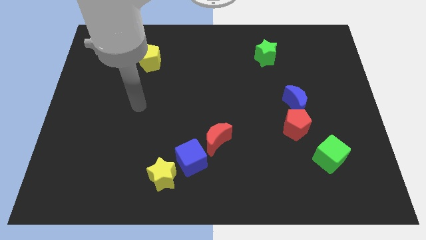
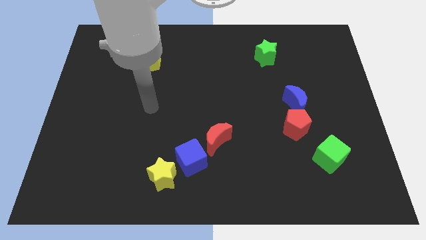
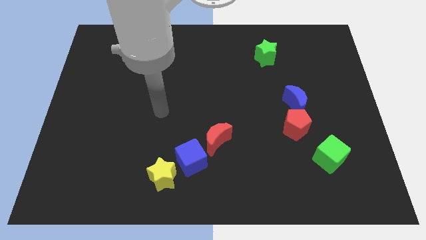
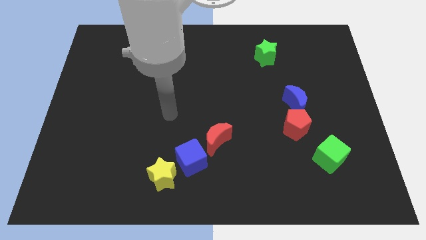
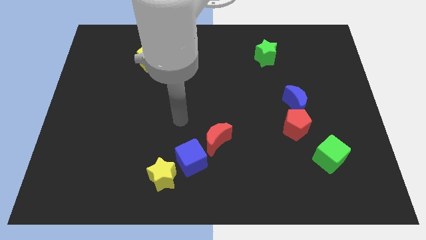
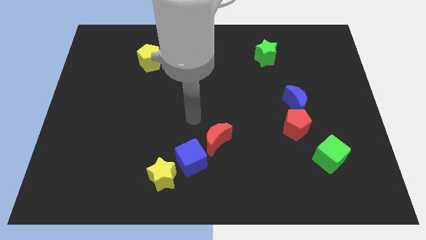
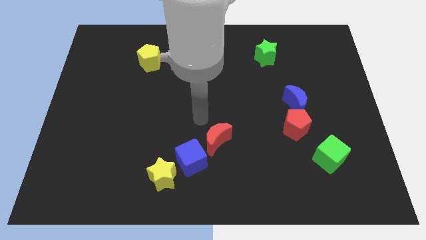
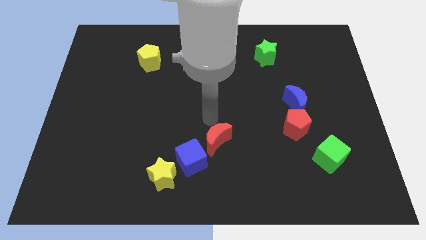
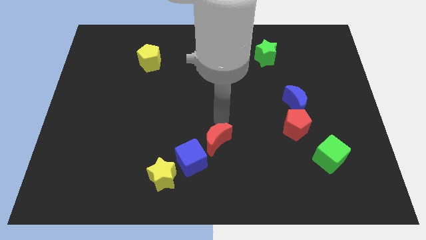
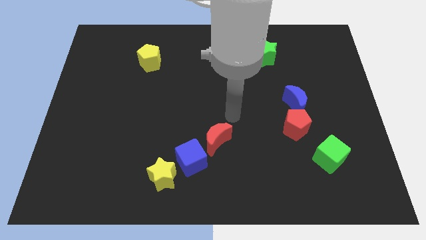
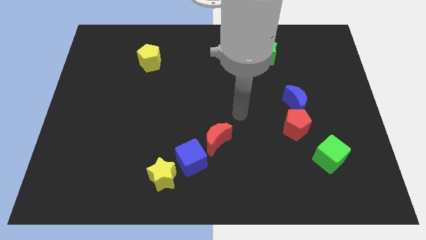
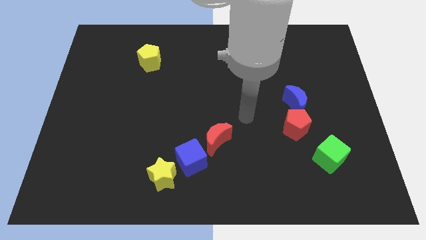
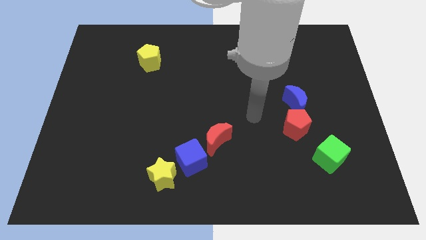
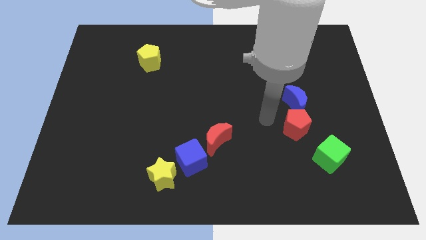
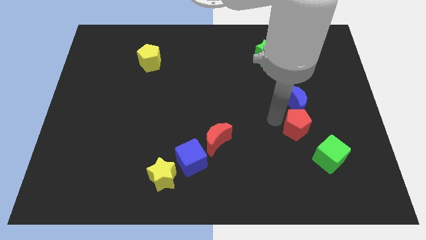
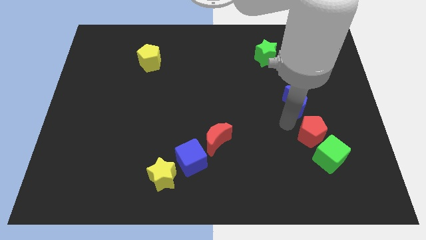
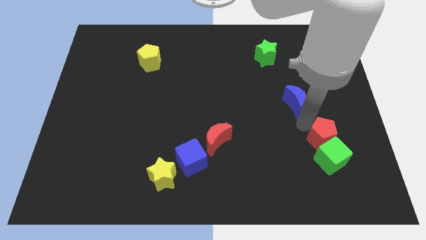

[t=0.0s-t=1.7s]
separate the blue moon from the red pentagon

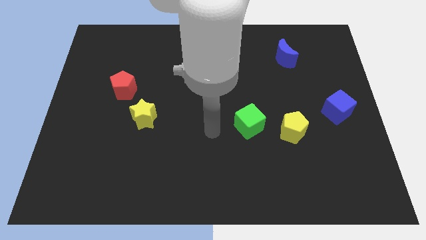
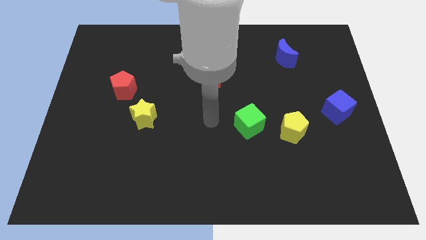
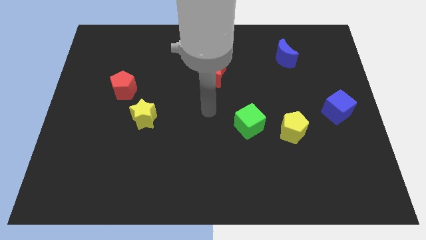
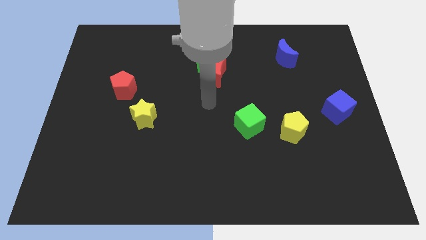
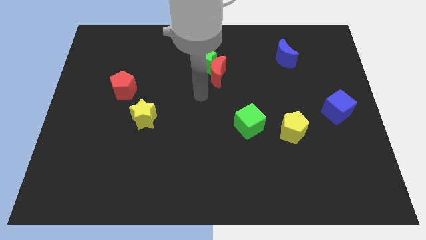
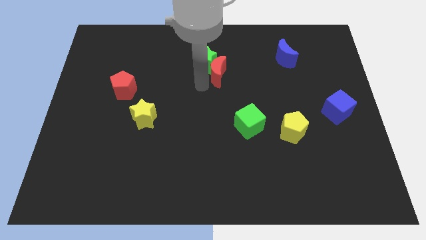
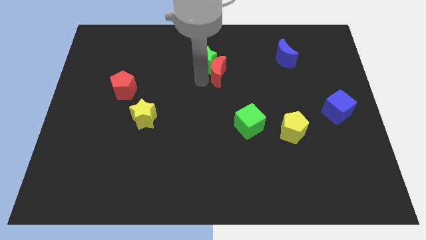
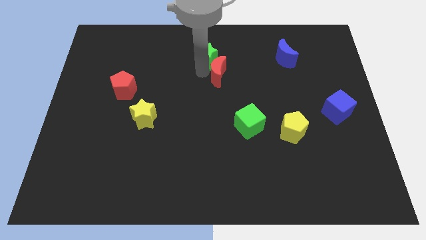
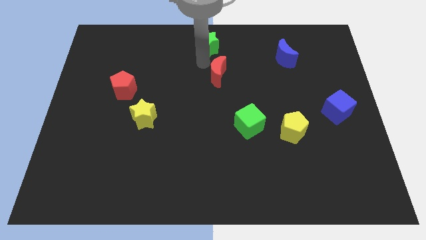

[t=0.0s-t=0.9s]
pull the red moon apart from the green star

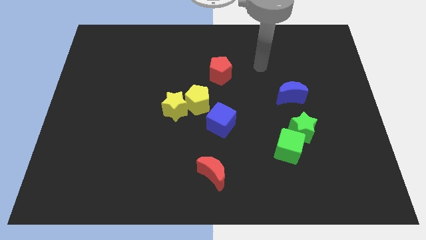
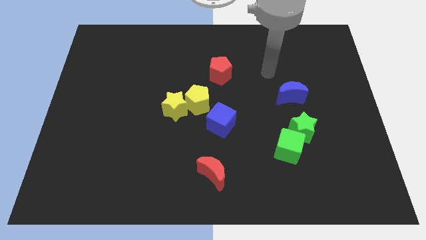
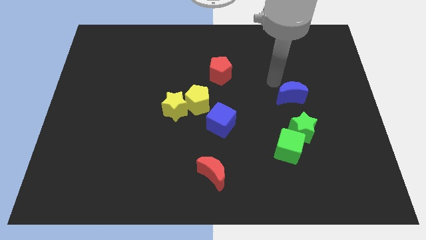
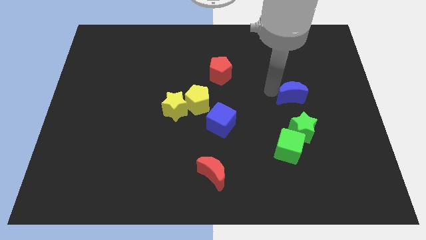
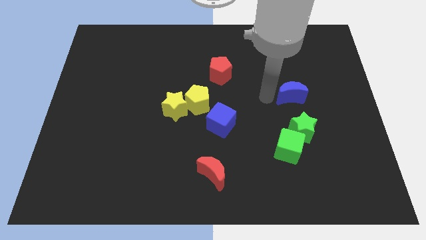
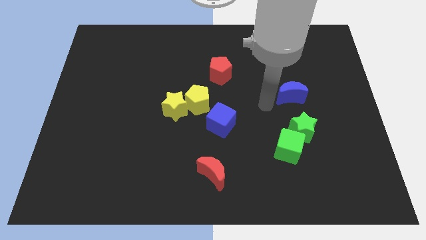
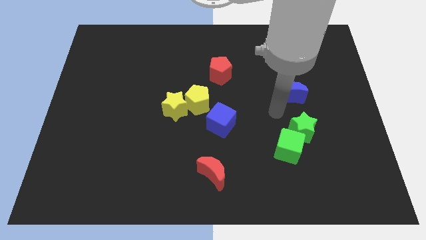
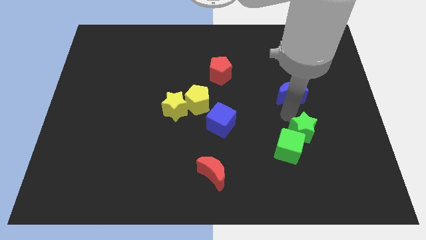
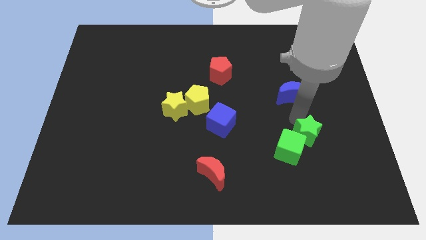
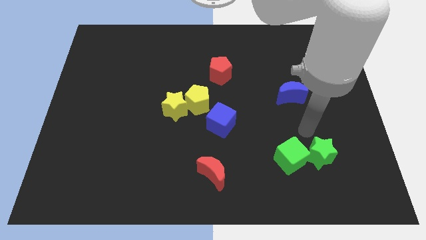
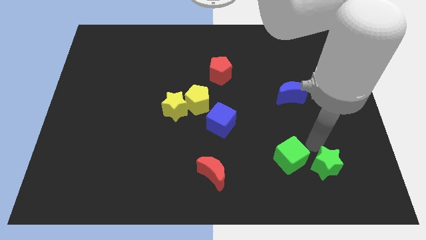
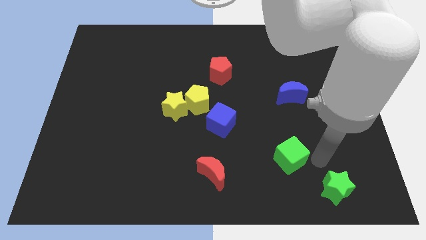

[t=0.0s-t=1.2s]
move the green cube away from the green star

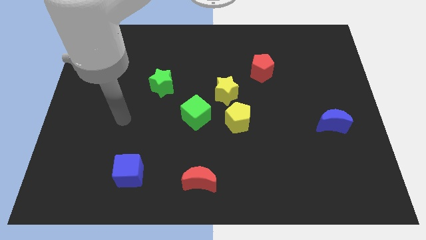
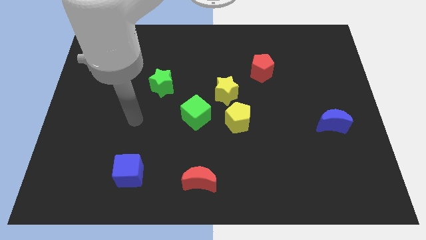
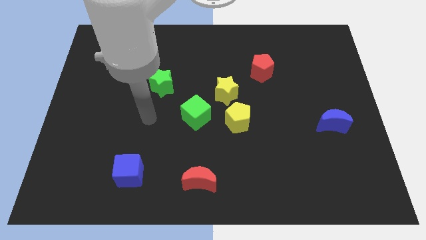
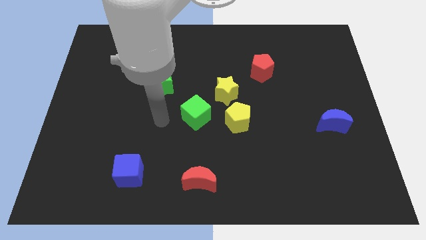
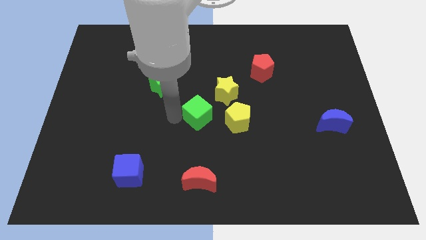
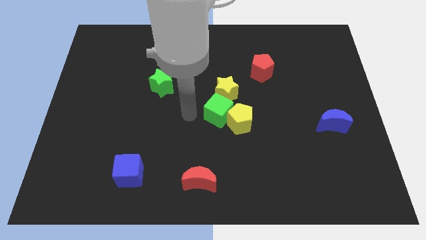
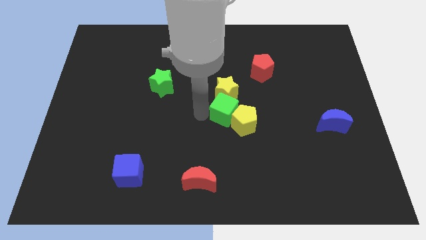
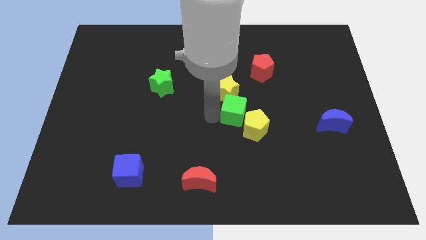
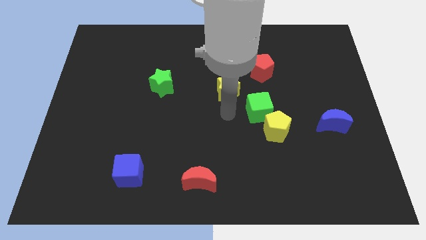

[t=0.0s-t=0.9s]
pull the yellow star apart from the yellow pentagon and green cube

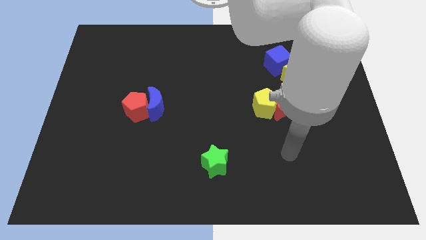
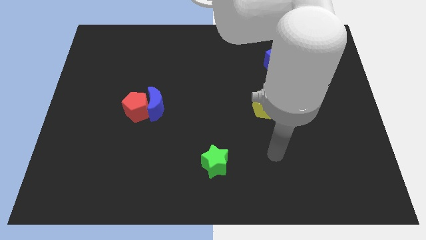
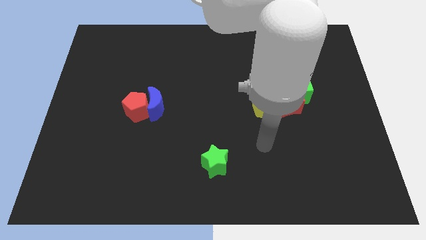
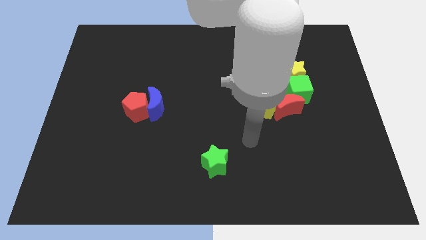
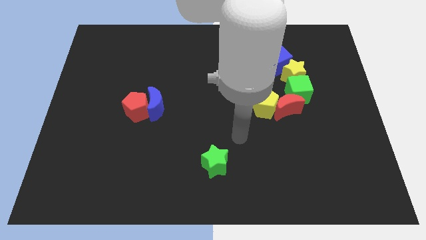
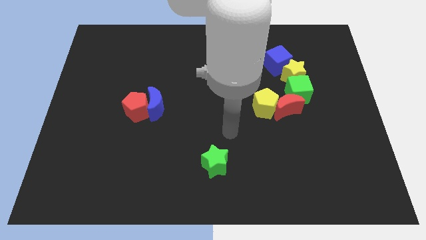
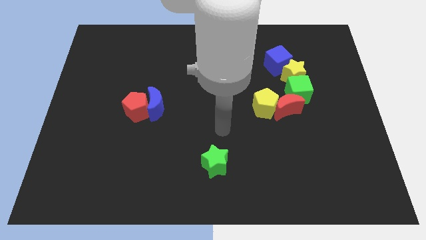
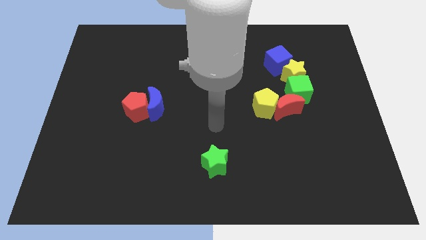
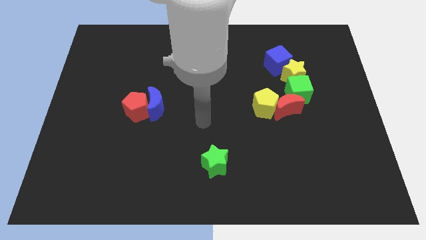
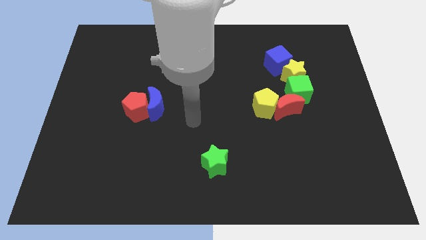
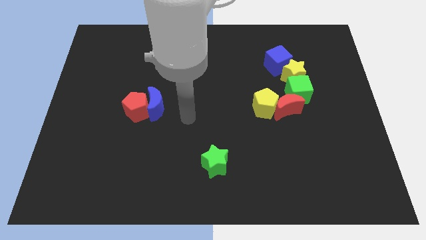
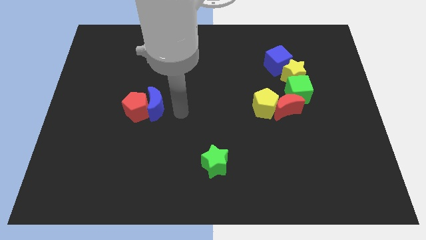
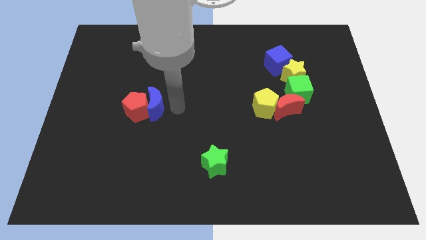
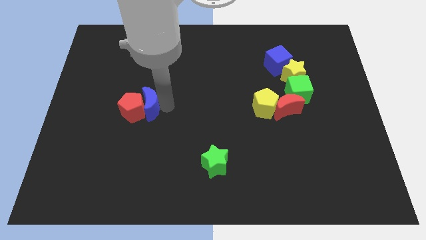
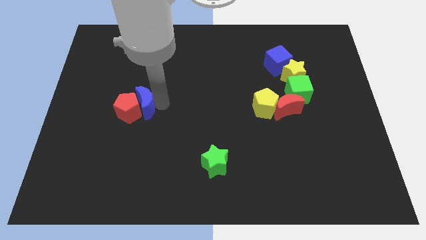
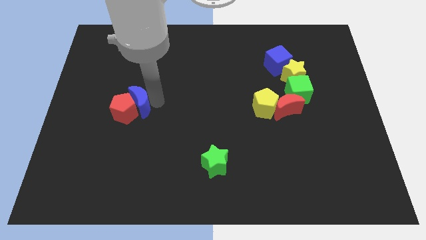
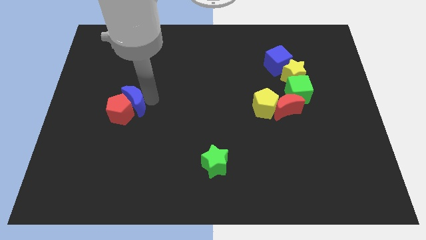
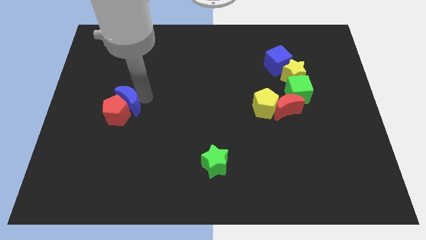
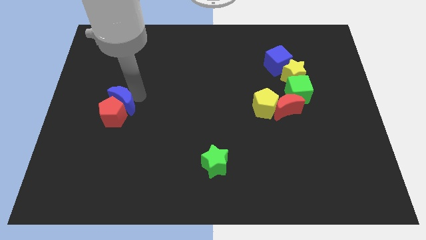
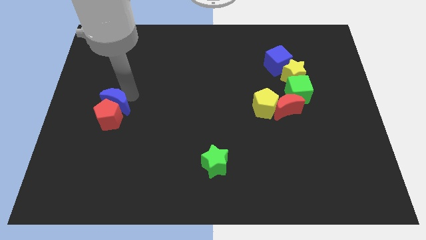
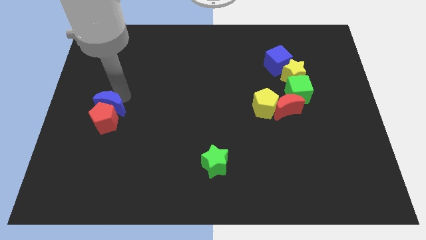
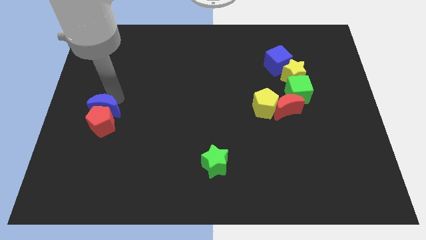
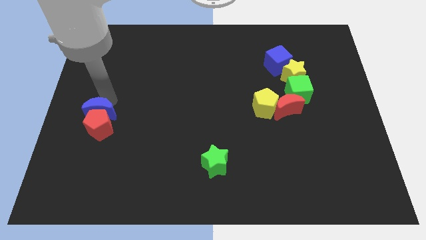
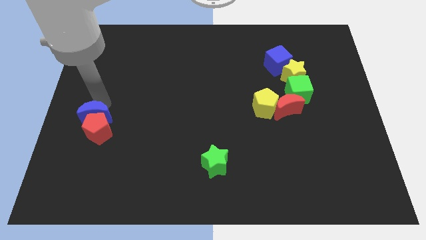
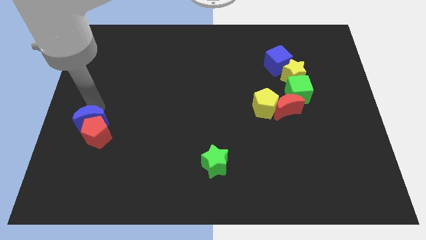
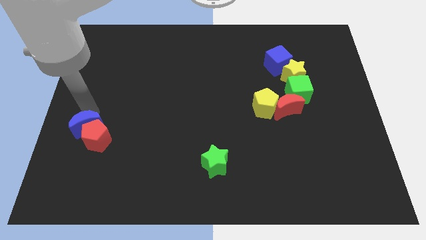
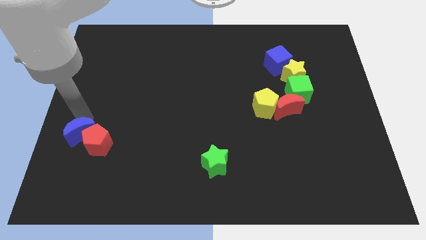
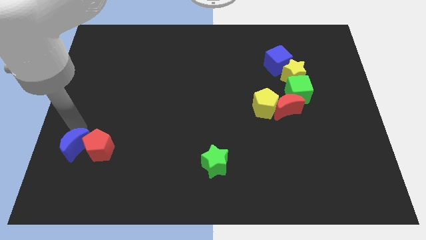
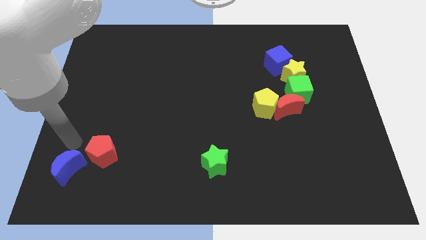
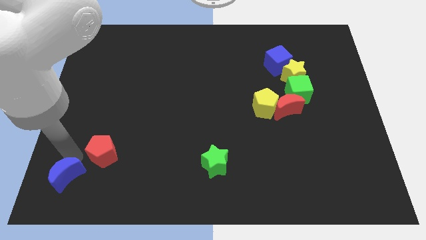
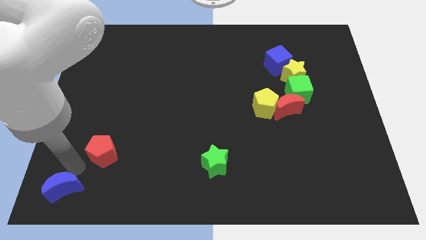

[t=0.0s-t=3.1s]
separate the red pentagon from the blue moon

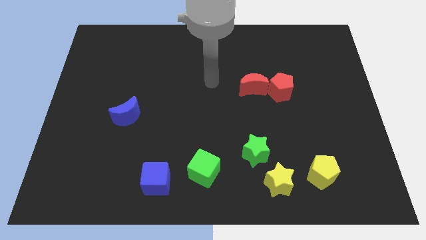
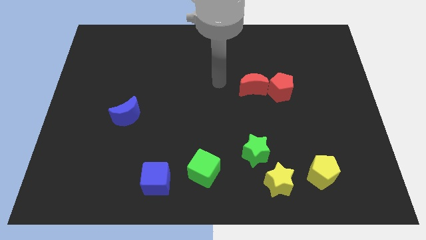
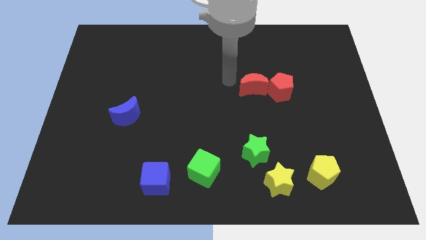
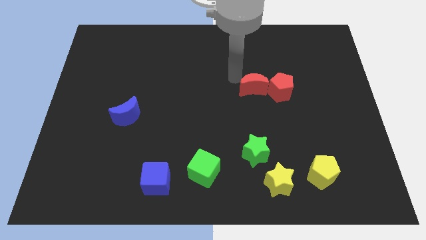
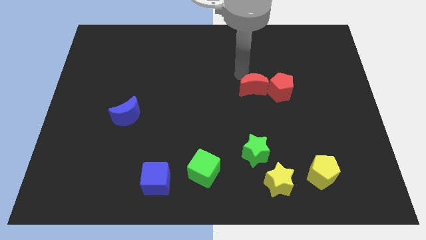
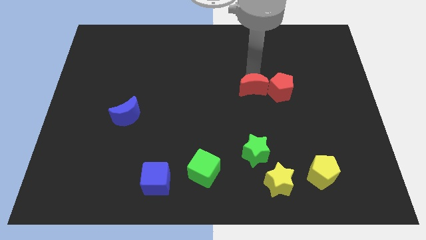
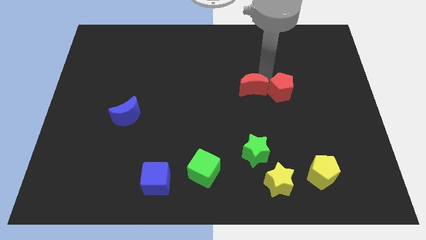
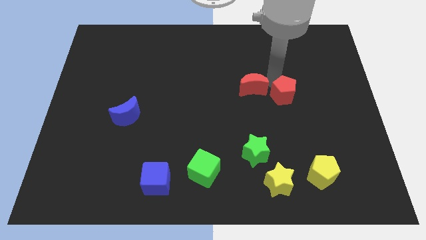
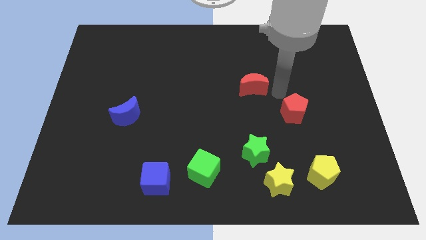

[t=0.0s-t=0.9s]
separate the red moon from the red pentagon

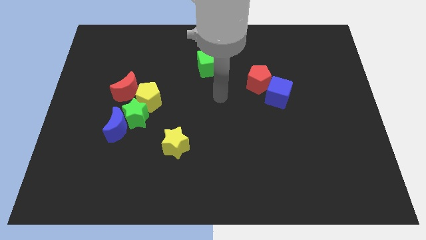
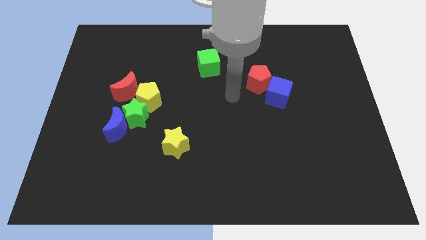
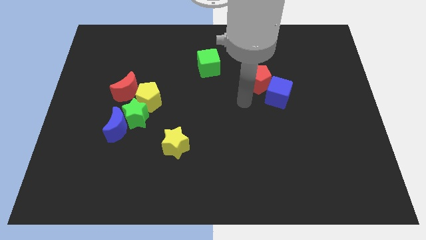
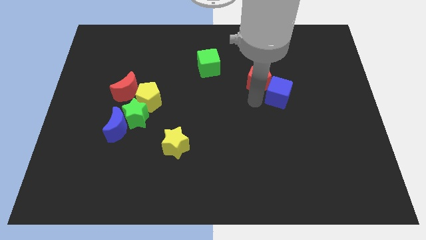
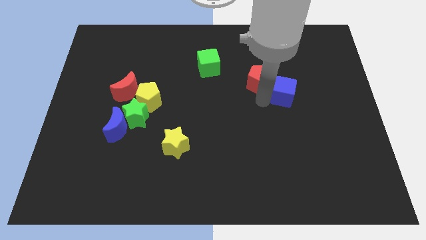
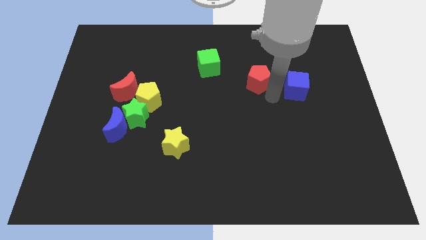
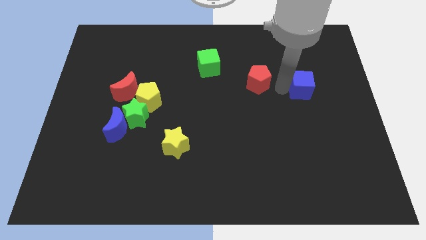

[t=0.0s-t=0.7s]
pull the red pentagon apart from the blue cube
